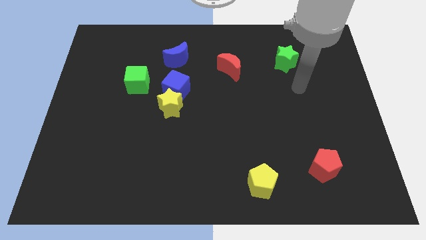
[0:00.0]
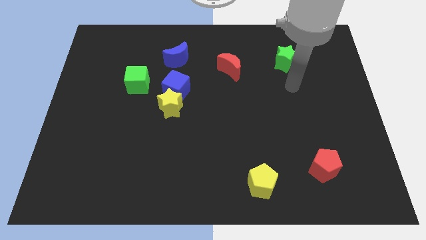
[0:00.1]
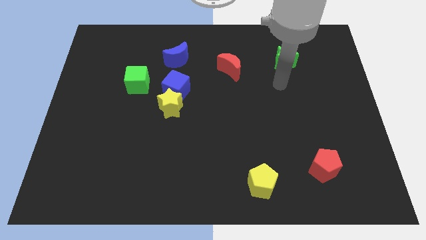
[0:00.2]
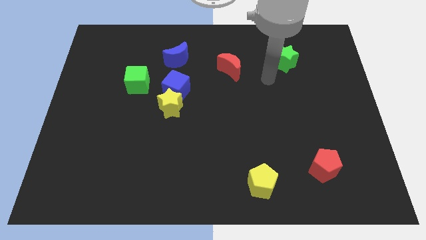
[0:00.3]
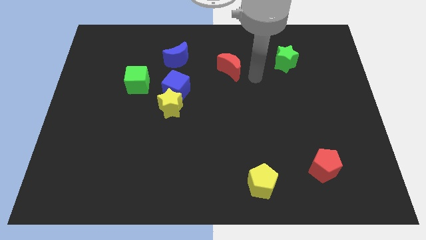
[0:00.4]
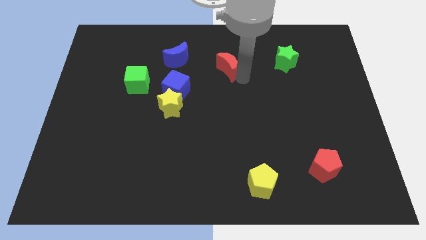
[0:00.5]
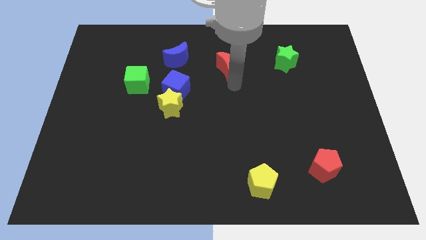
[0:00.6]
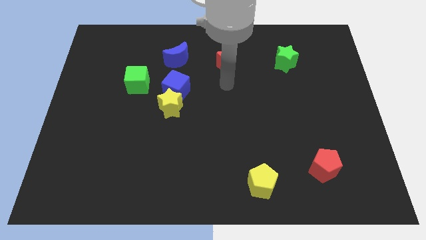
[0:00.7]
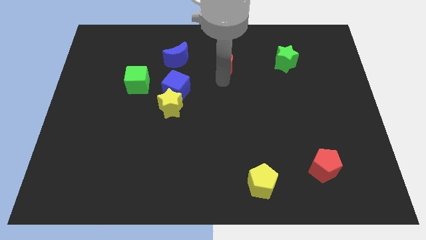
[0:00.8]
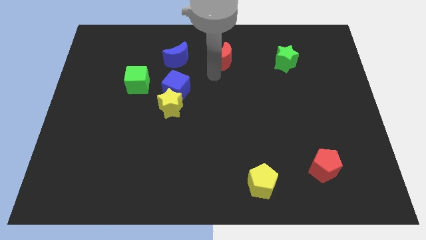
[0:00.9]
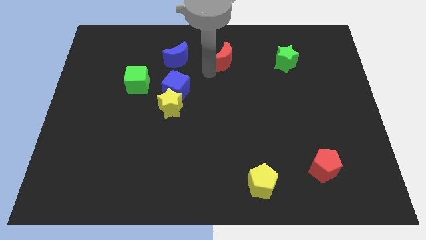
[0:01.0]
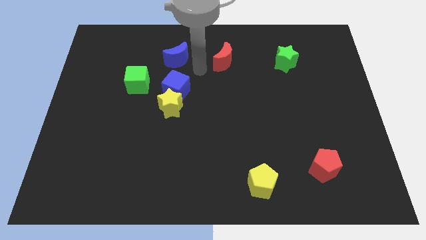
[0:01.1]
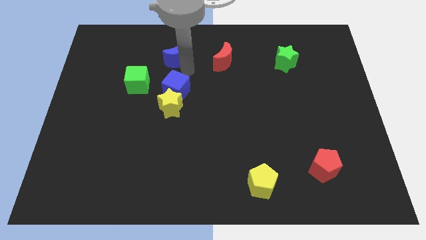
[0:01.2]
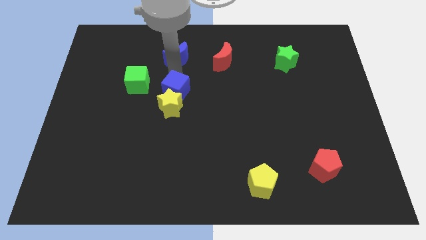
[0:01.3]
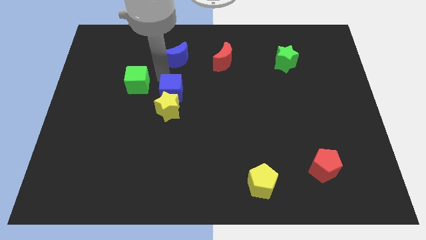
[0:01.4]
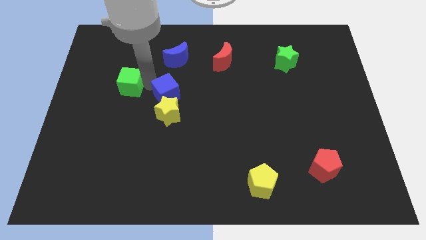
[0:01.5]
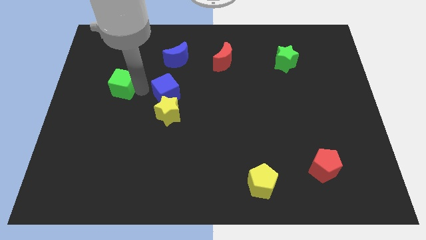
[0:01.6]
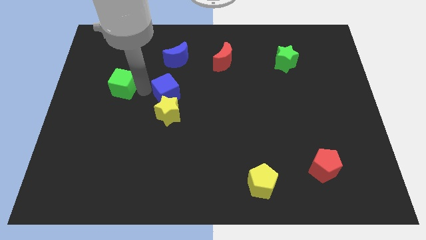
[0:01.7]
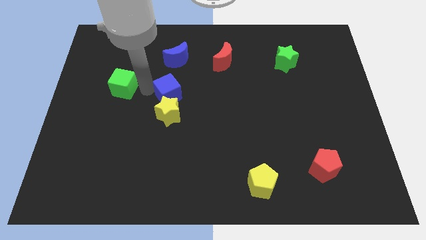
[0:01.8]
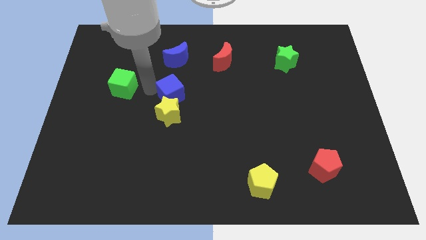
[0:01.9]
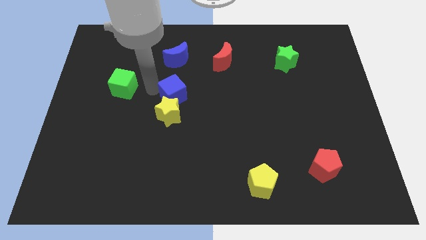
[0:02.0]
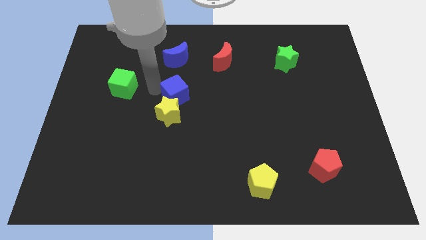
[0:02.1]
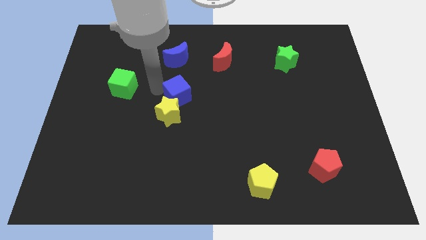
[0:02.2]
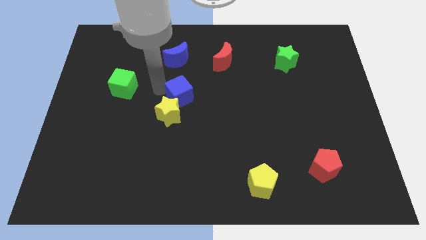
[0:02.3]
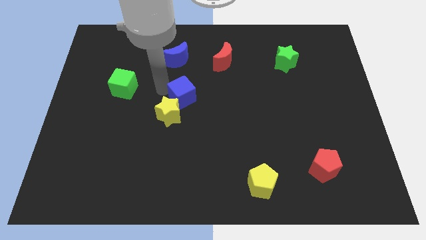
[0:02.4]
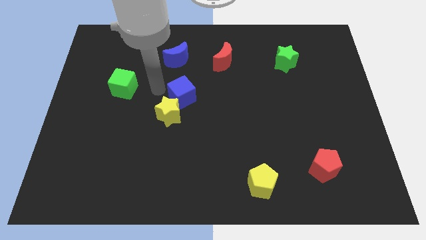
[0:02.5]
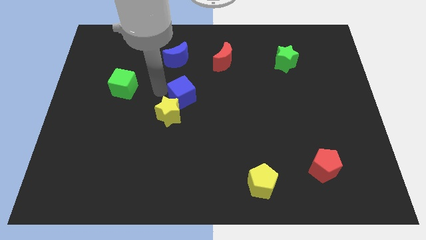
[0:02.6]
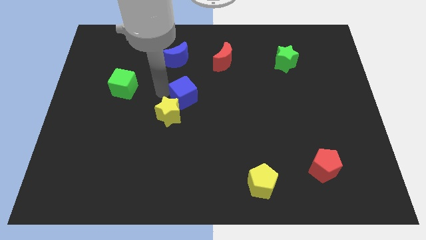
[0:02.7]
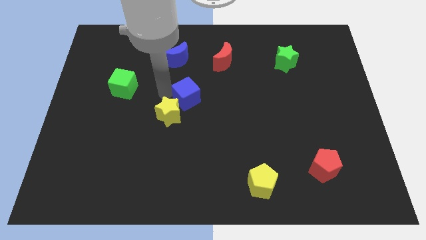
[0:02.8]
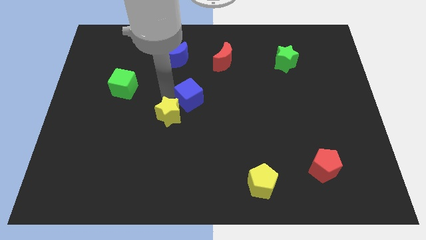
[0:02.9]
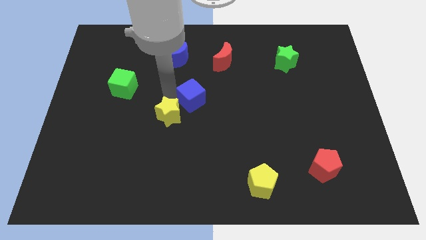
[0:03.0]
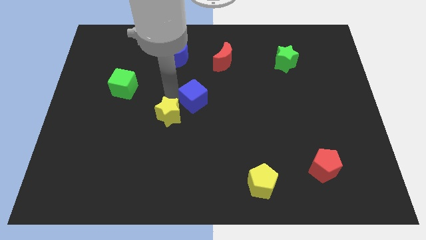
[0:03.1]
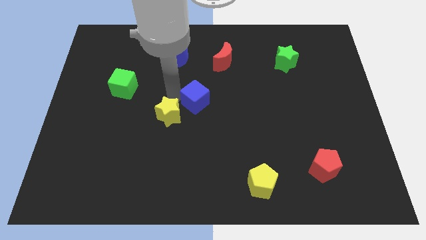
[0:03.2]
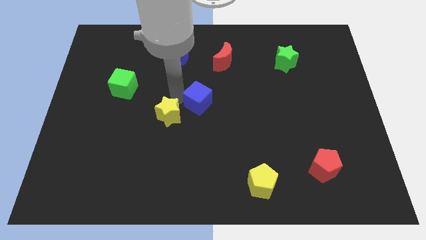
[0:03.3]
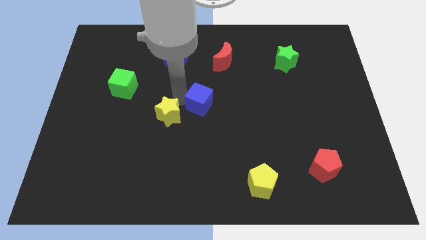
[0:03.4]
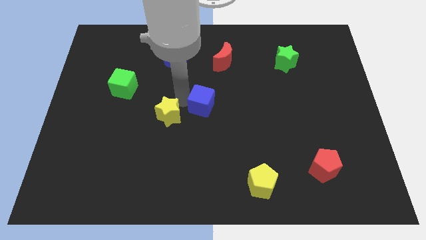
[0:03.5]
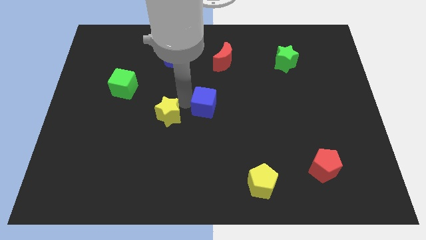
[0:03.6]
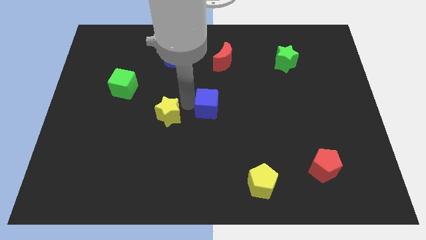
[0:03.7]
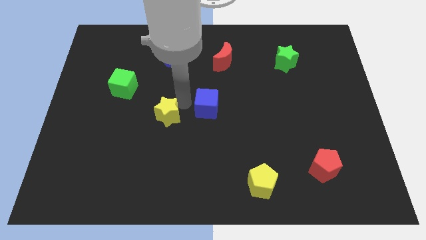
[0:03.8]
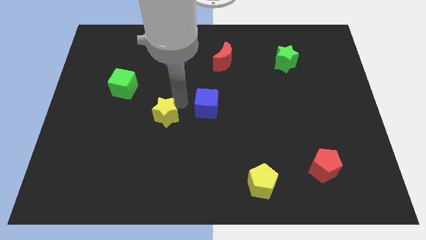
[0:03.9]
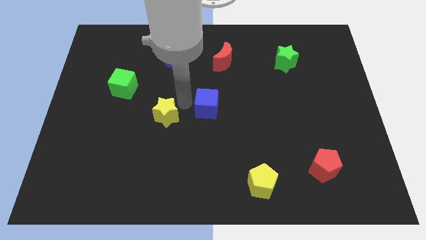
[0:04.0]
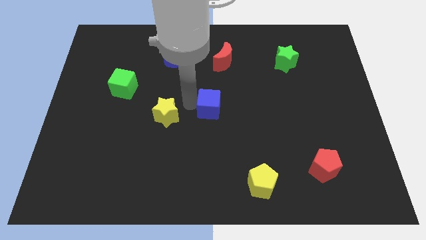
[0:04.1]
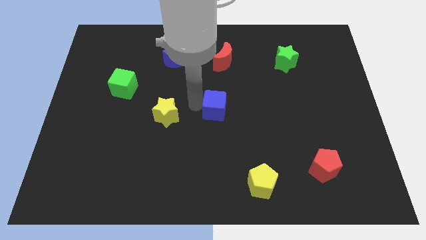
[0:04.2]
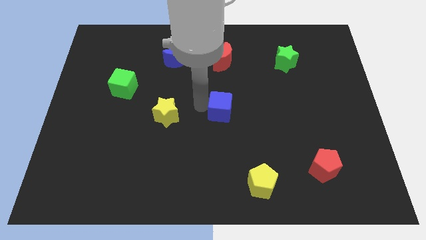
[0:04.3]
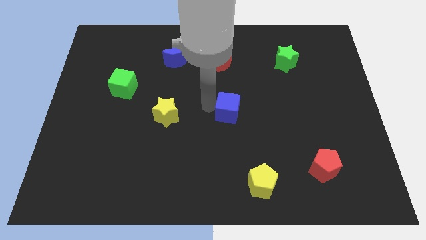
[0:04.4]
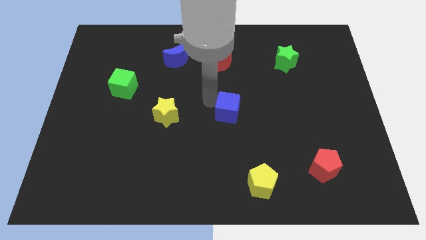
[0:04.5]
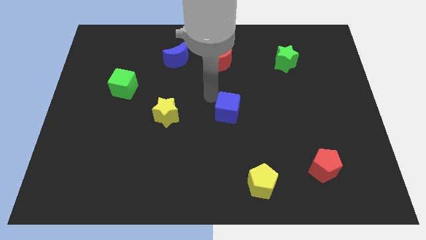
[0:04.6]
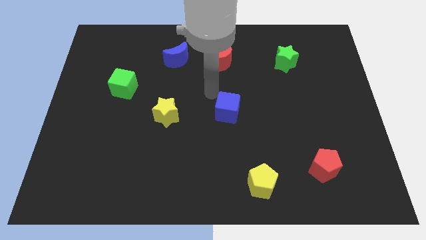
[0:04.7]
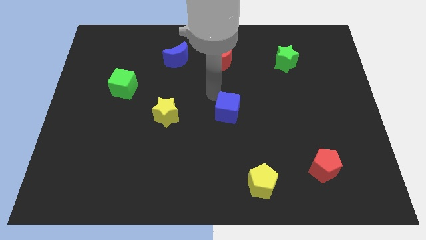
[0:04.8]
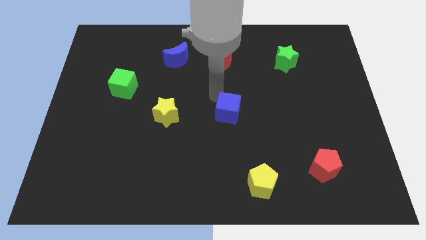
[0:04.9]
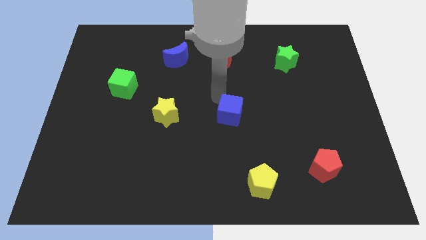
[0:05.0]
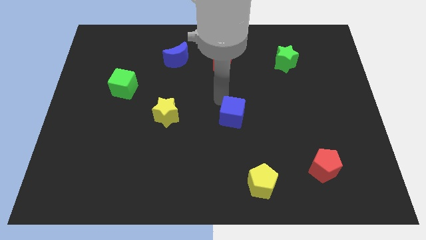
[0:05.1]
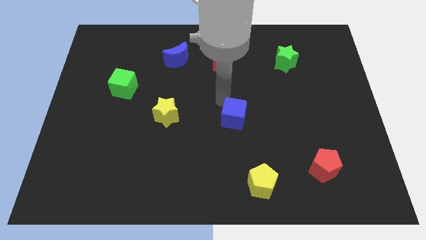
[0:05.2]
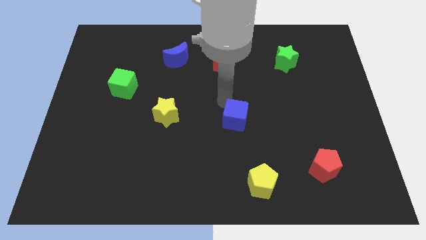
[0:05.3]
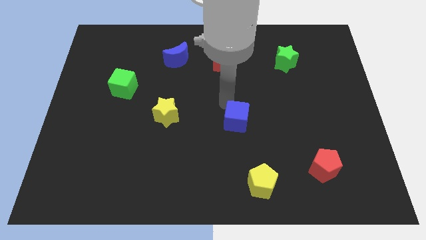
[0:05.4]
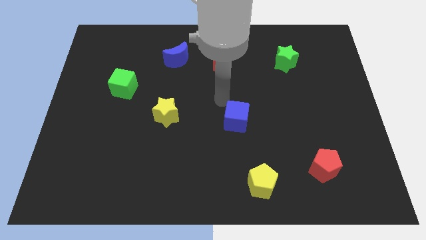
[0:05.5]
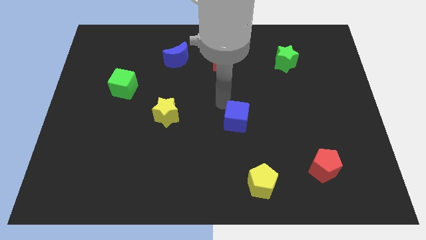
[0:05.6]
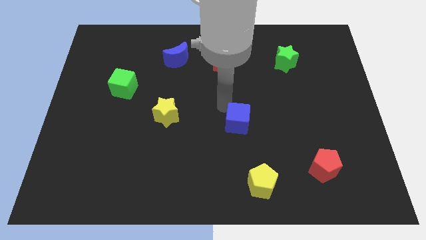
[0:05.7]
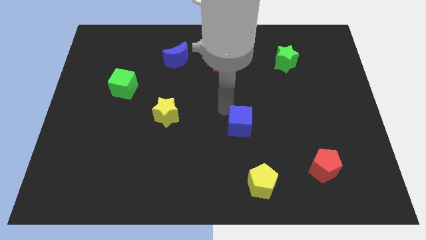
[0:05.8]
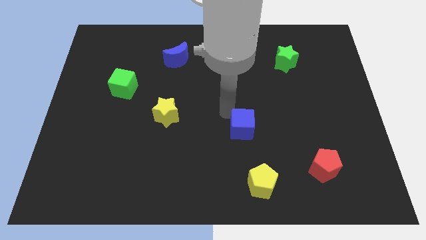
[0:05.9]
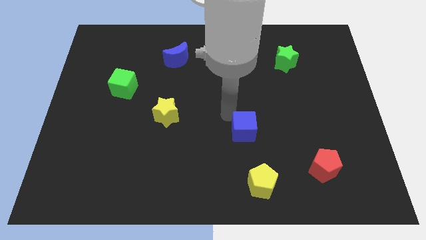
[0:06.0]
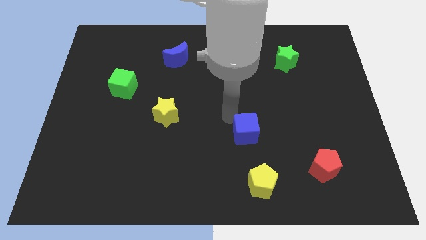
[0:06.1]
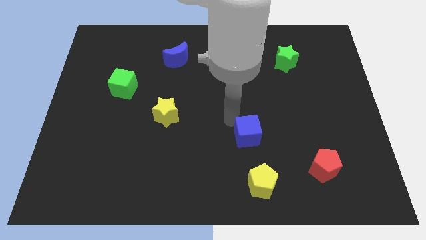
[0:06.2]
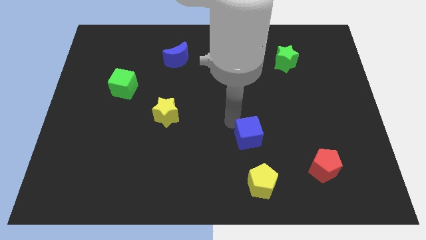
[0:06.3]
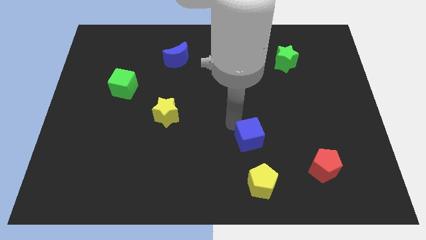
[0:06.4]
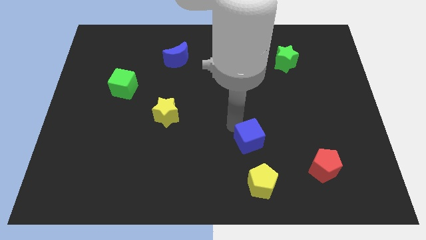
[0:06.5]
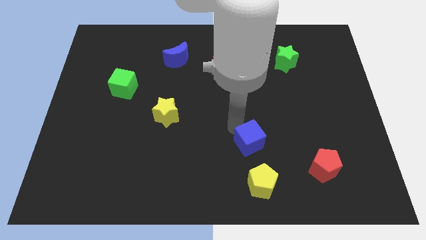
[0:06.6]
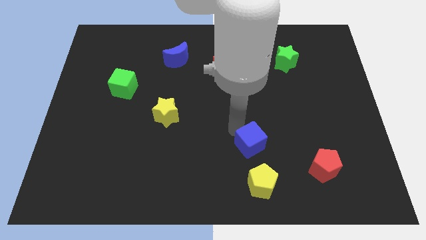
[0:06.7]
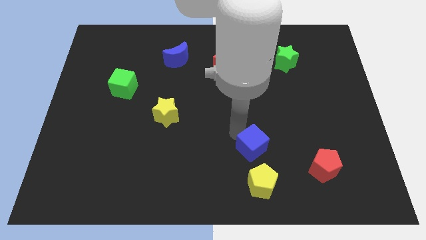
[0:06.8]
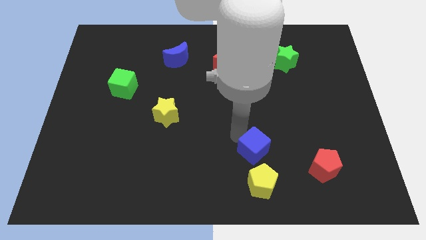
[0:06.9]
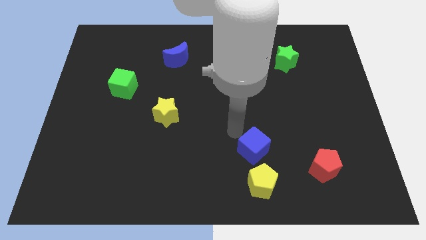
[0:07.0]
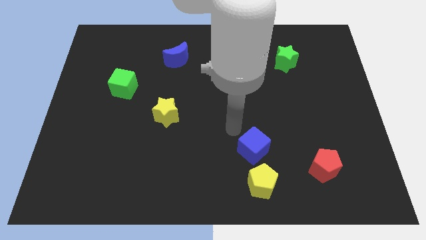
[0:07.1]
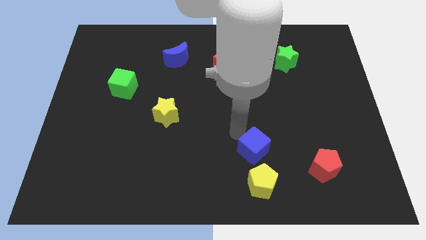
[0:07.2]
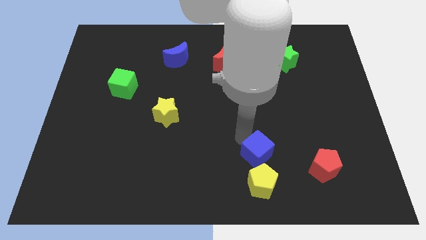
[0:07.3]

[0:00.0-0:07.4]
push the blue cube just left of the red pentagon
